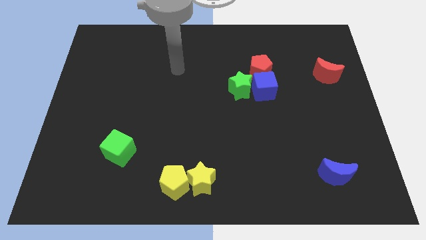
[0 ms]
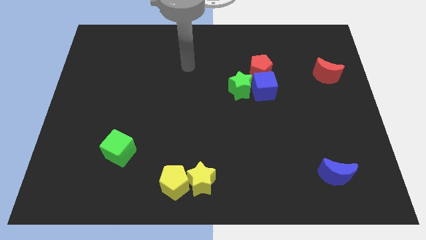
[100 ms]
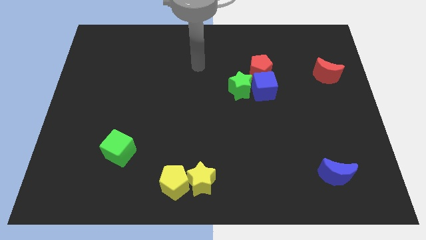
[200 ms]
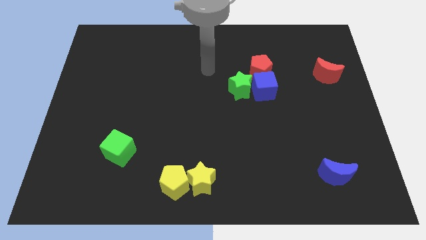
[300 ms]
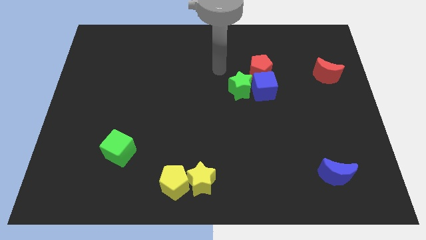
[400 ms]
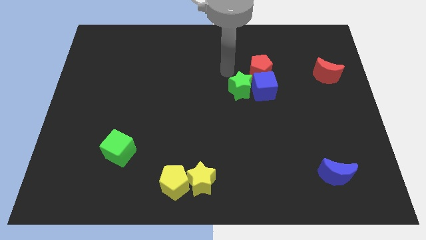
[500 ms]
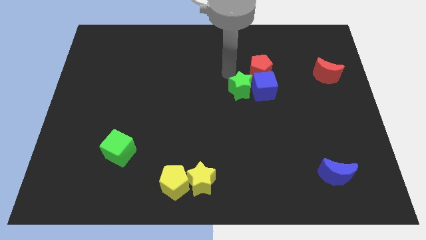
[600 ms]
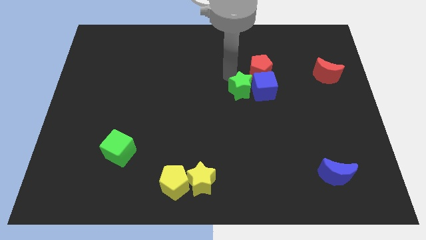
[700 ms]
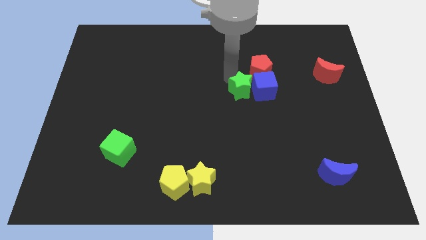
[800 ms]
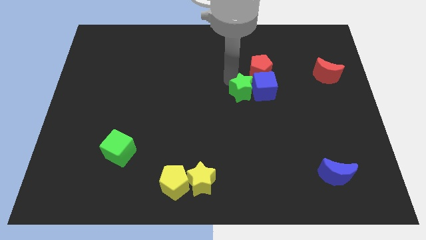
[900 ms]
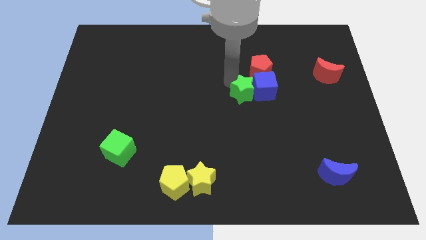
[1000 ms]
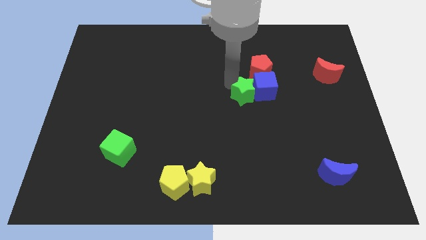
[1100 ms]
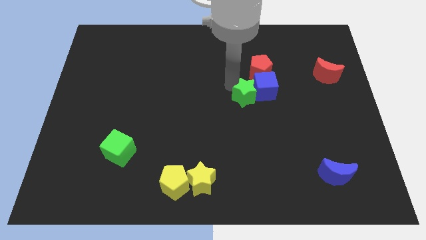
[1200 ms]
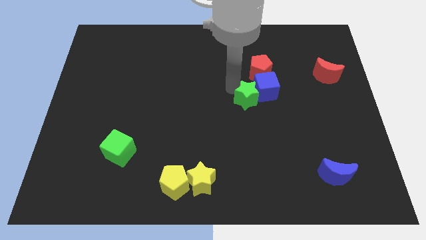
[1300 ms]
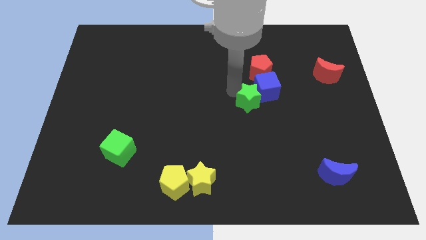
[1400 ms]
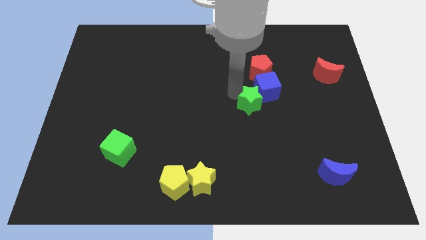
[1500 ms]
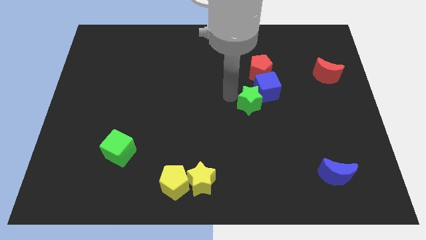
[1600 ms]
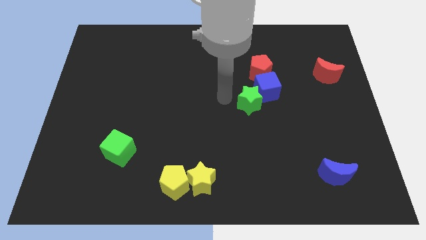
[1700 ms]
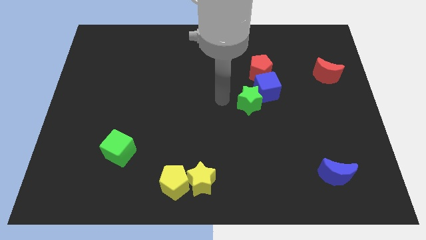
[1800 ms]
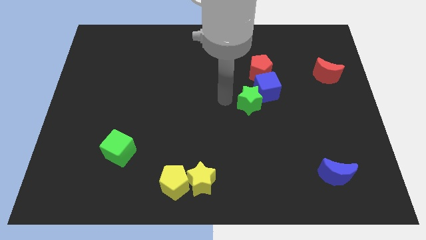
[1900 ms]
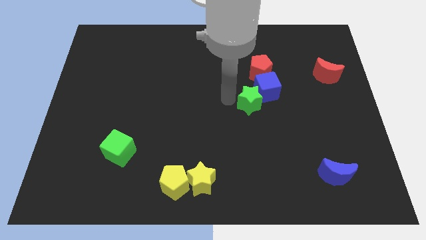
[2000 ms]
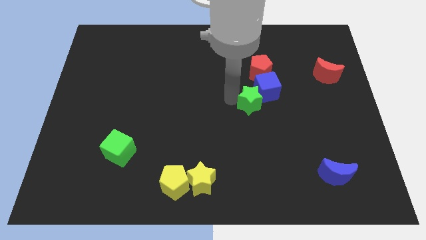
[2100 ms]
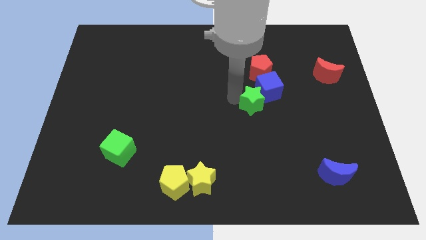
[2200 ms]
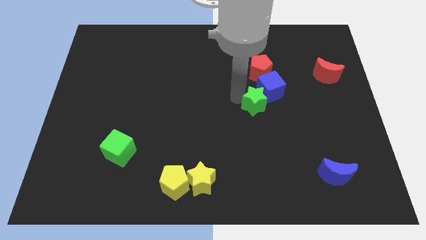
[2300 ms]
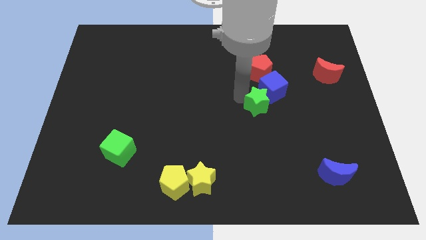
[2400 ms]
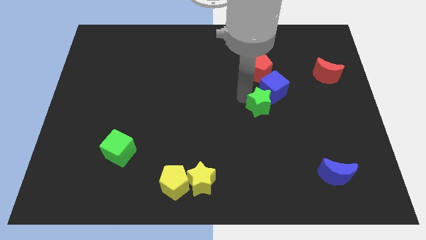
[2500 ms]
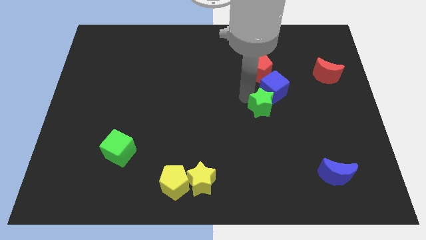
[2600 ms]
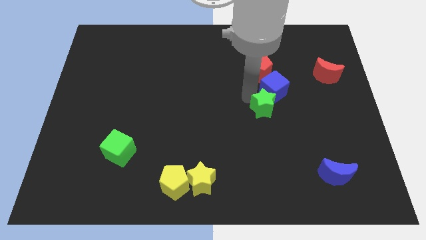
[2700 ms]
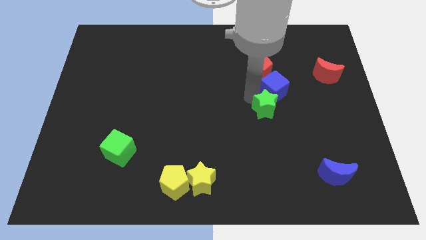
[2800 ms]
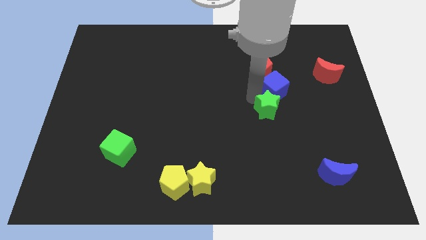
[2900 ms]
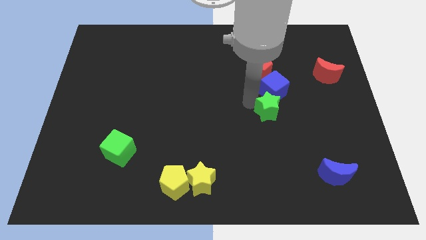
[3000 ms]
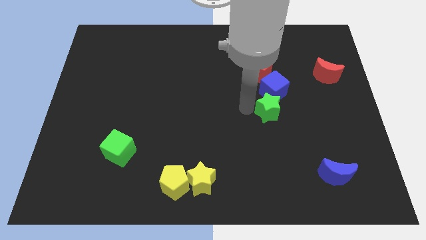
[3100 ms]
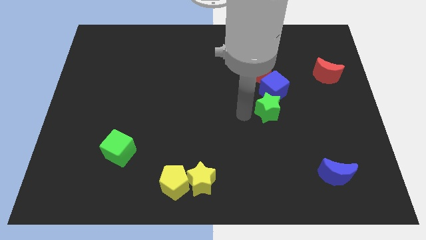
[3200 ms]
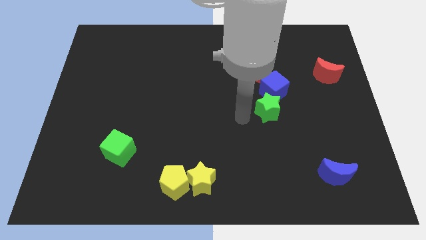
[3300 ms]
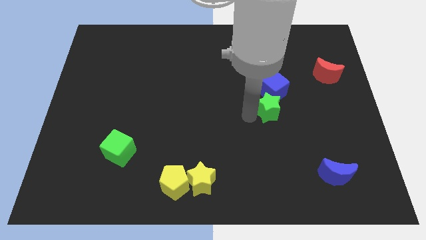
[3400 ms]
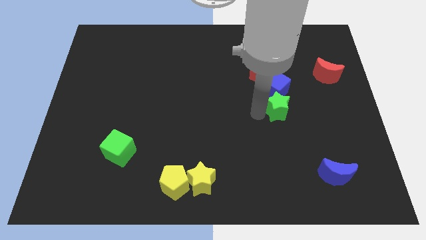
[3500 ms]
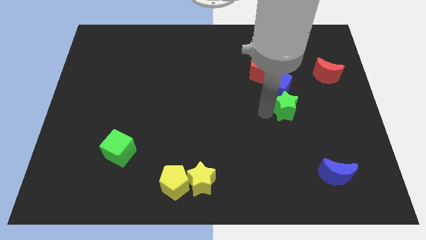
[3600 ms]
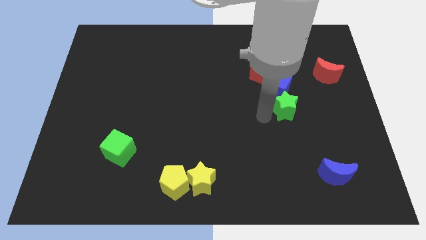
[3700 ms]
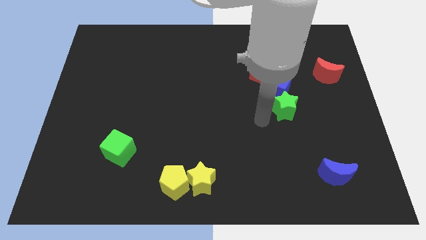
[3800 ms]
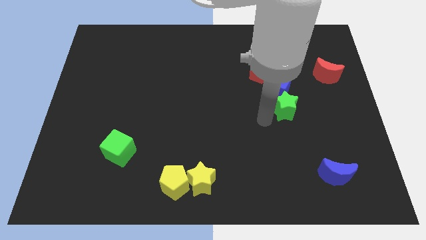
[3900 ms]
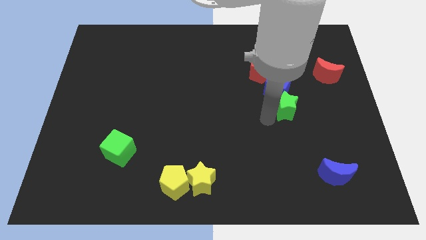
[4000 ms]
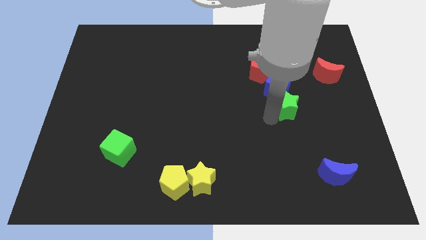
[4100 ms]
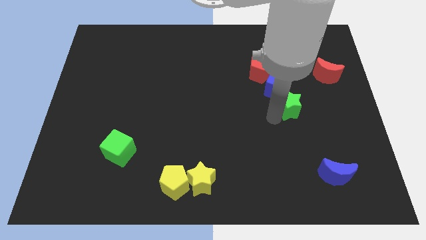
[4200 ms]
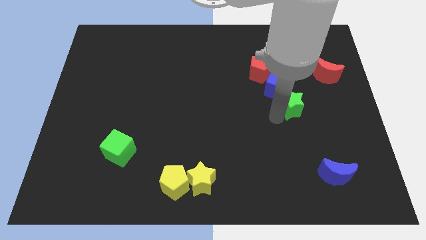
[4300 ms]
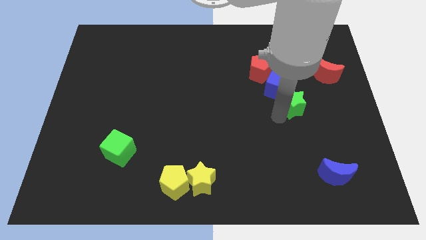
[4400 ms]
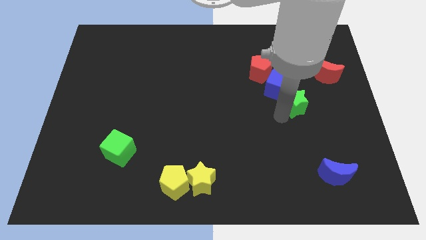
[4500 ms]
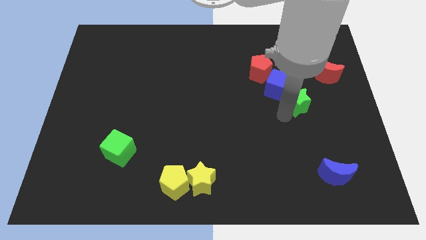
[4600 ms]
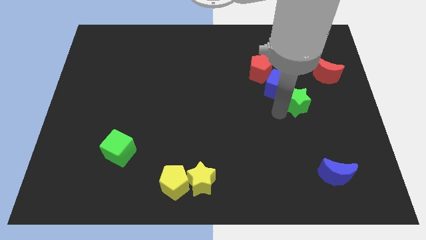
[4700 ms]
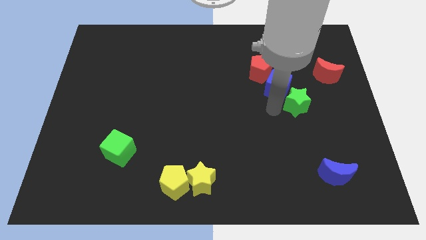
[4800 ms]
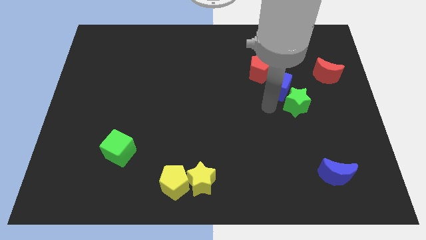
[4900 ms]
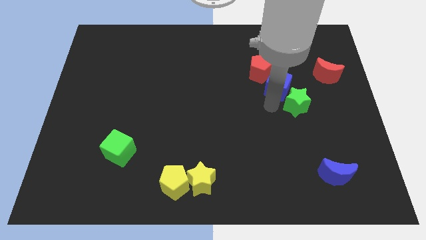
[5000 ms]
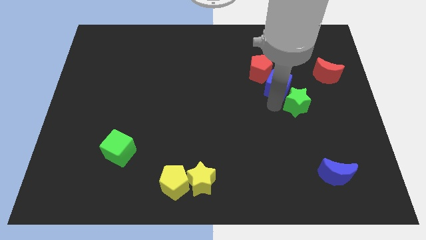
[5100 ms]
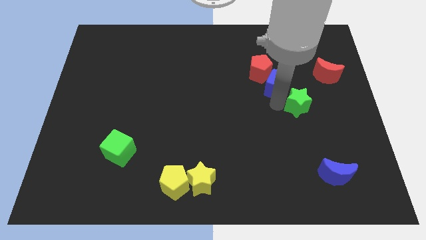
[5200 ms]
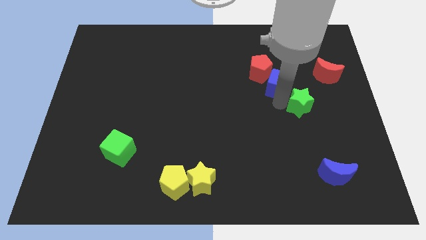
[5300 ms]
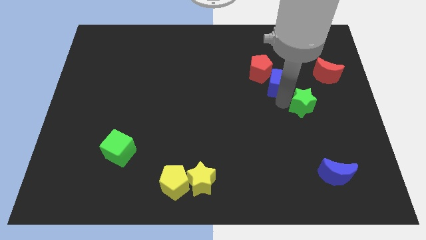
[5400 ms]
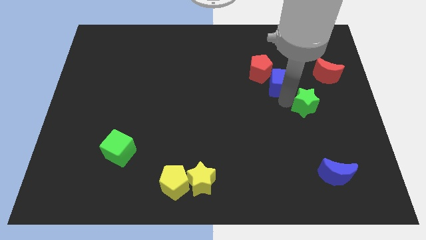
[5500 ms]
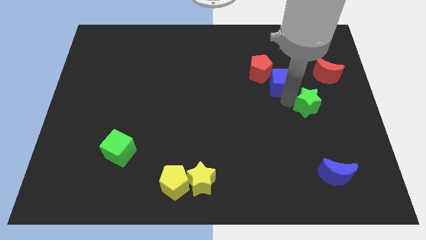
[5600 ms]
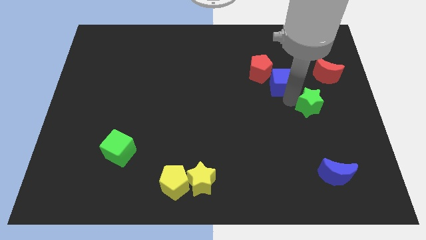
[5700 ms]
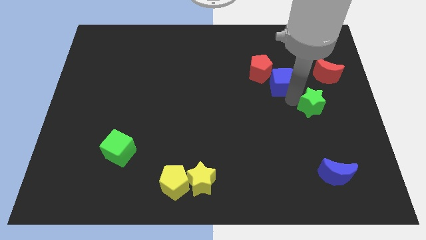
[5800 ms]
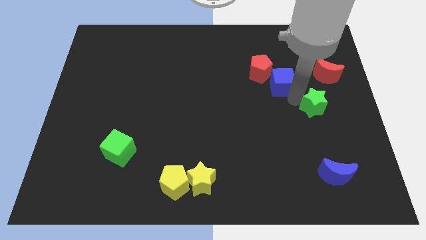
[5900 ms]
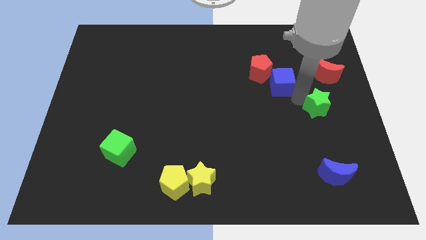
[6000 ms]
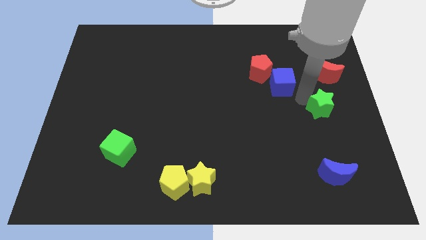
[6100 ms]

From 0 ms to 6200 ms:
put the green star to the right side

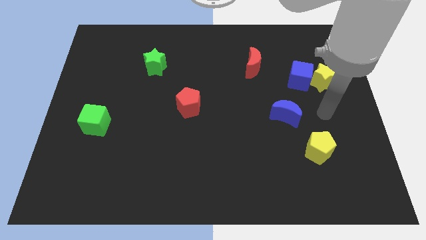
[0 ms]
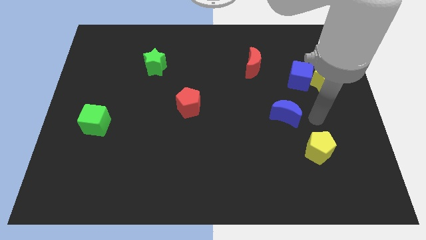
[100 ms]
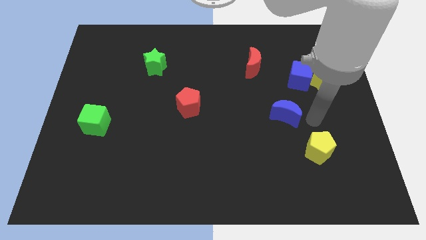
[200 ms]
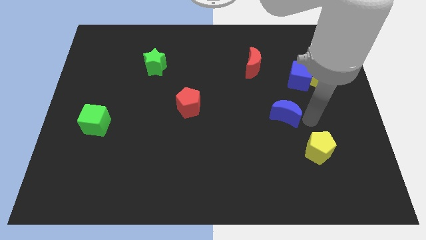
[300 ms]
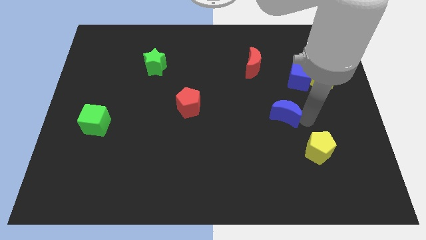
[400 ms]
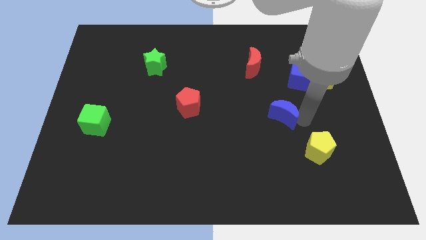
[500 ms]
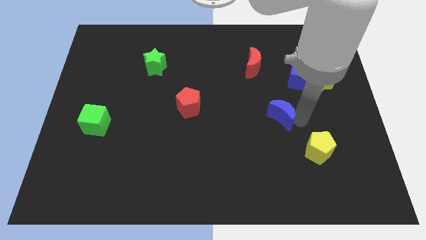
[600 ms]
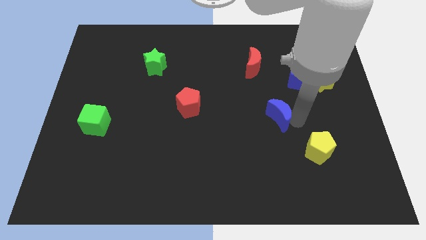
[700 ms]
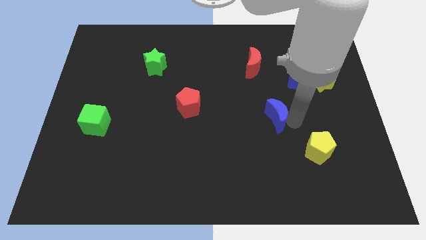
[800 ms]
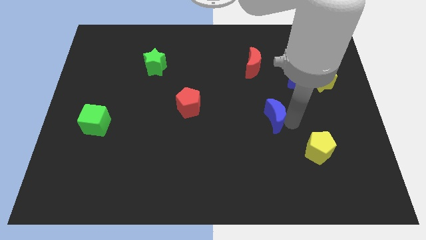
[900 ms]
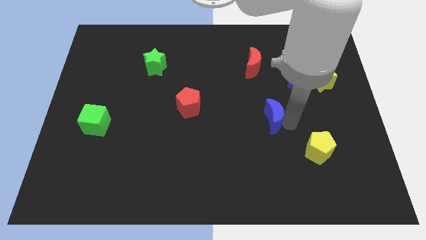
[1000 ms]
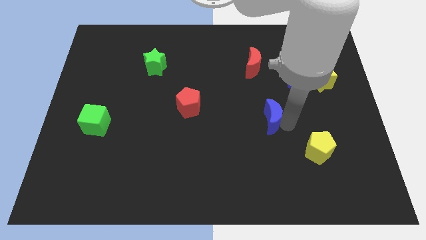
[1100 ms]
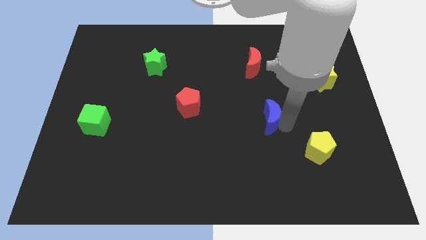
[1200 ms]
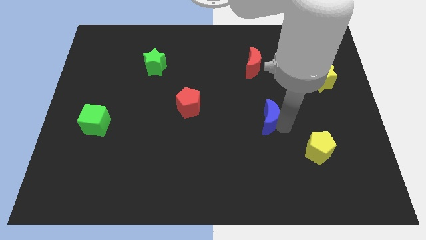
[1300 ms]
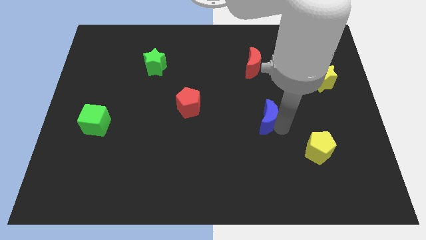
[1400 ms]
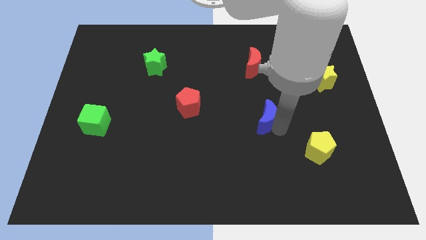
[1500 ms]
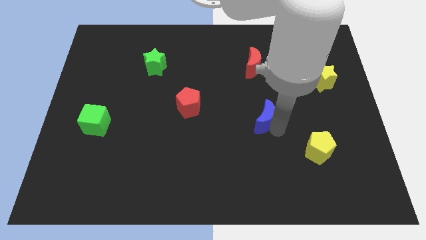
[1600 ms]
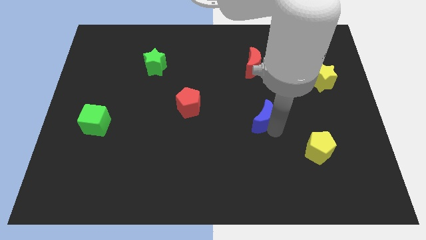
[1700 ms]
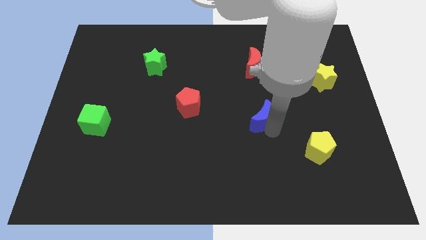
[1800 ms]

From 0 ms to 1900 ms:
push the blue moon to the middle
